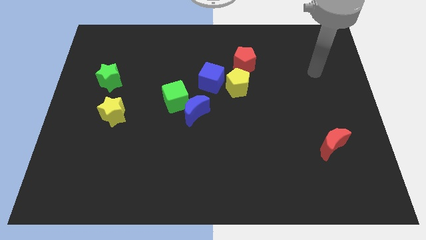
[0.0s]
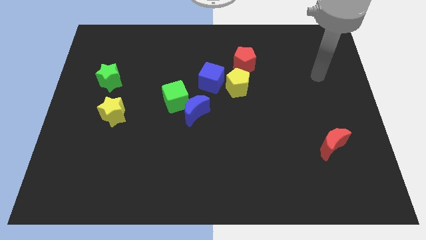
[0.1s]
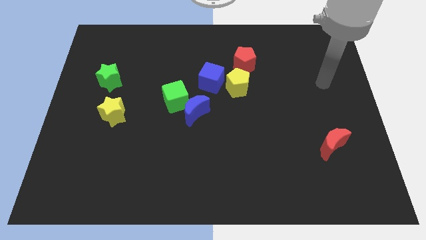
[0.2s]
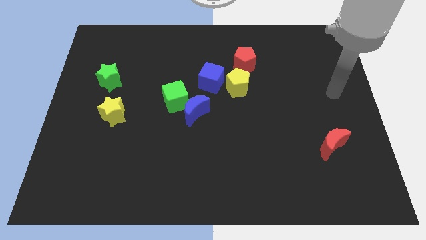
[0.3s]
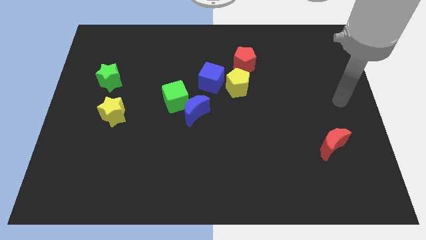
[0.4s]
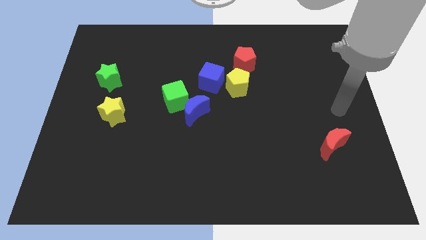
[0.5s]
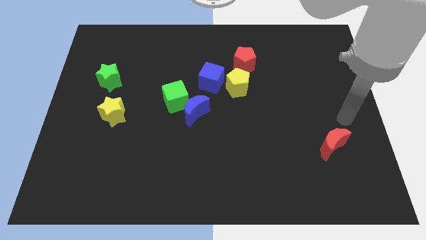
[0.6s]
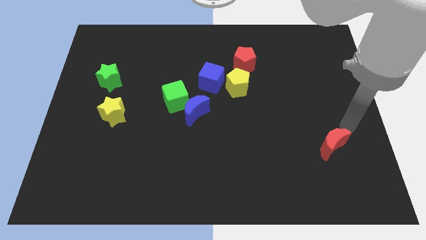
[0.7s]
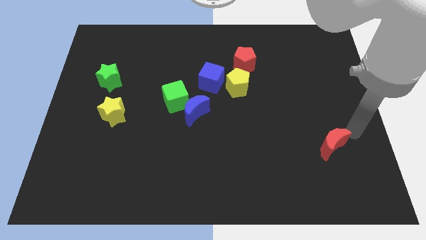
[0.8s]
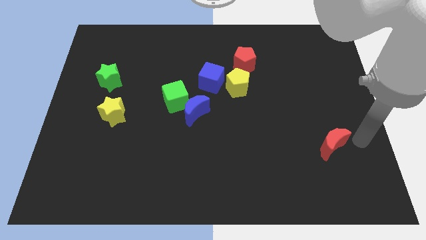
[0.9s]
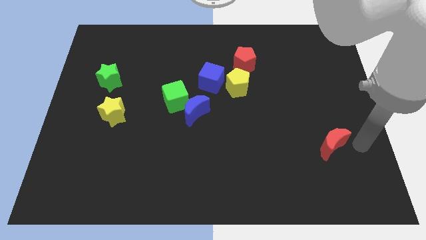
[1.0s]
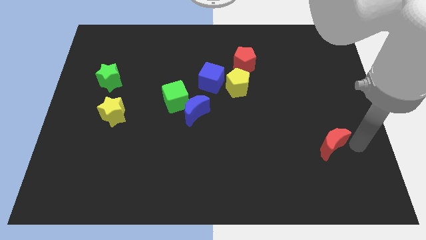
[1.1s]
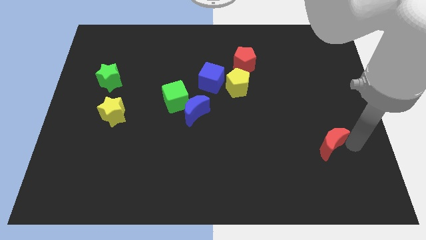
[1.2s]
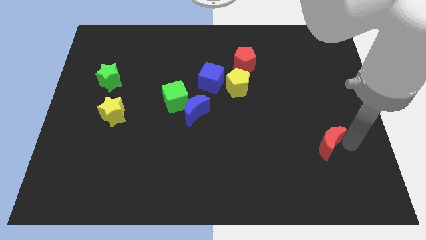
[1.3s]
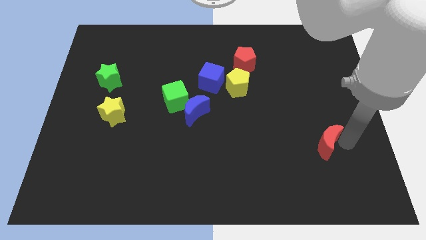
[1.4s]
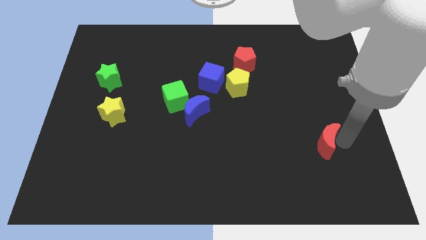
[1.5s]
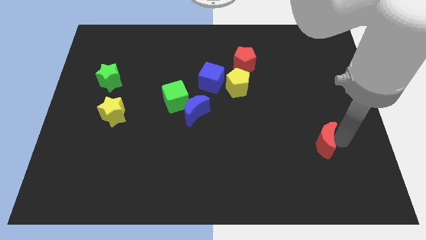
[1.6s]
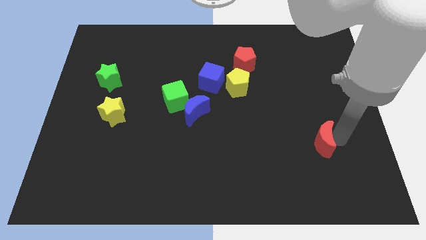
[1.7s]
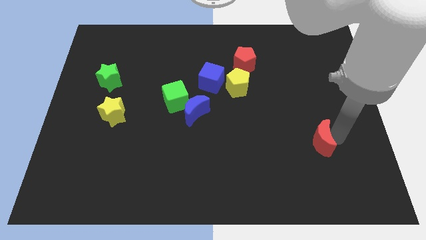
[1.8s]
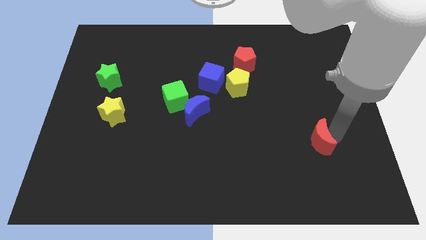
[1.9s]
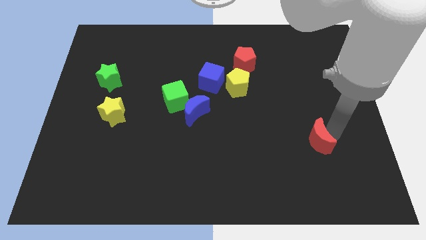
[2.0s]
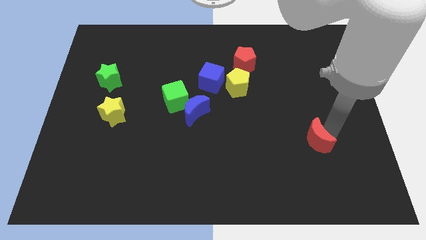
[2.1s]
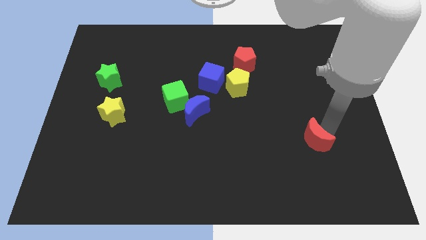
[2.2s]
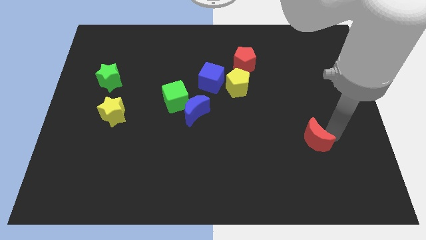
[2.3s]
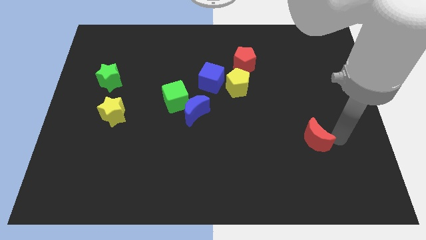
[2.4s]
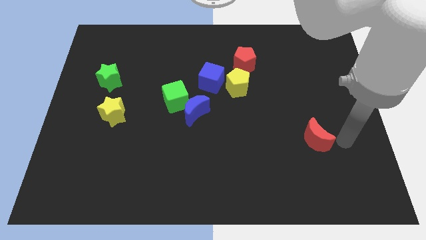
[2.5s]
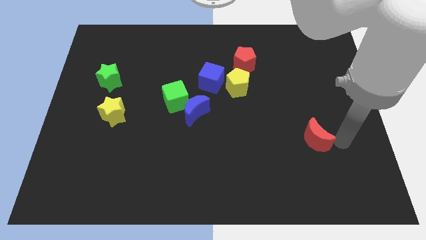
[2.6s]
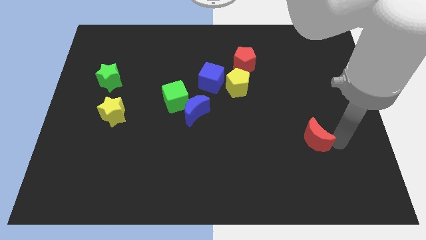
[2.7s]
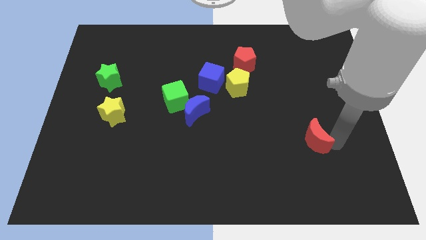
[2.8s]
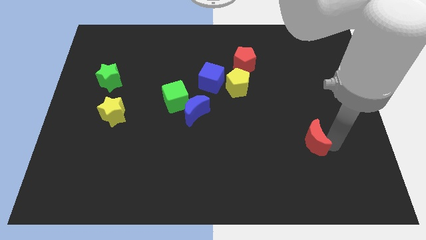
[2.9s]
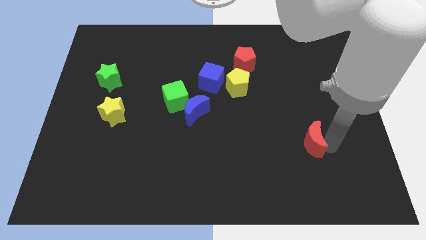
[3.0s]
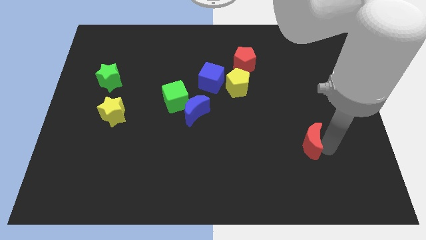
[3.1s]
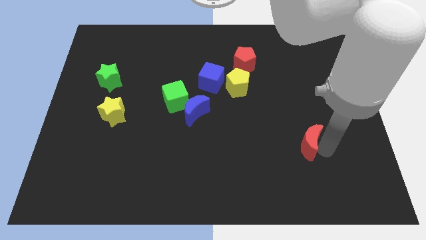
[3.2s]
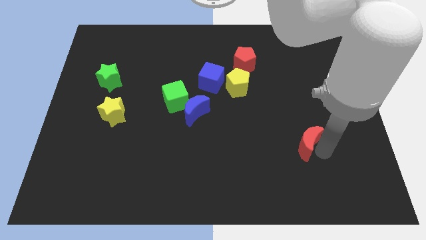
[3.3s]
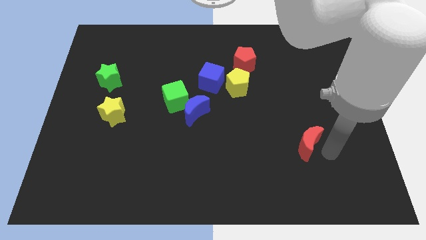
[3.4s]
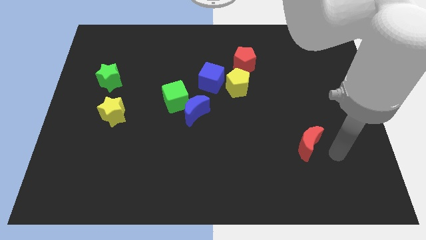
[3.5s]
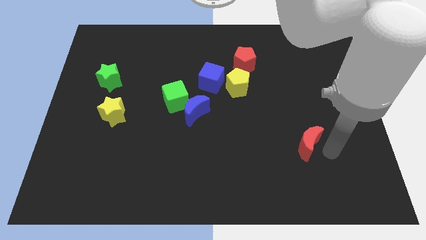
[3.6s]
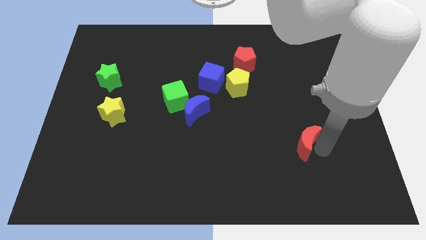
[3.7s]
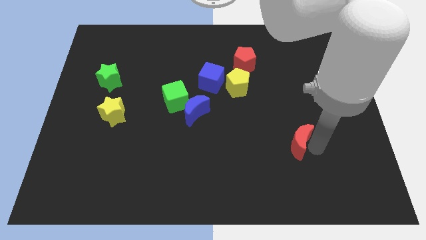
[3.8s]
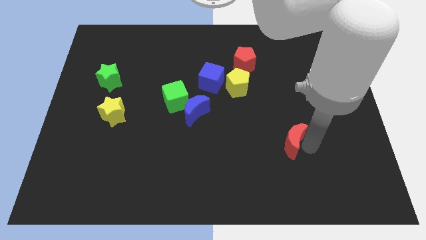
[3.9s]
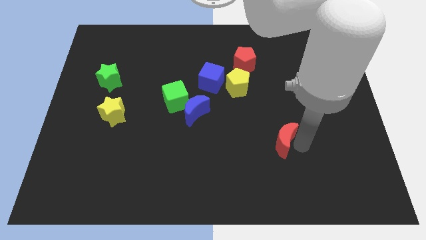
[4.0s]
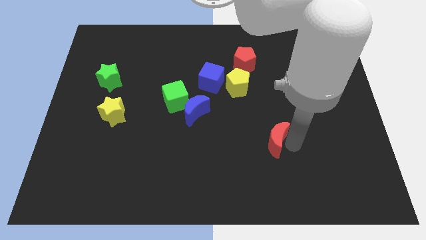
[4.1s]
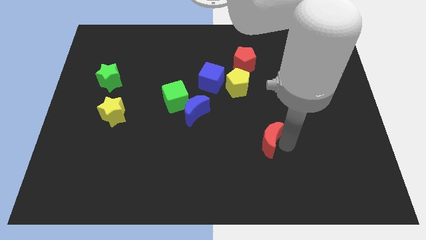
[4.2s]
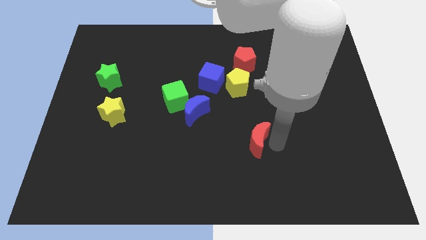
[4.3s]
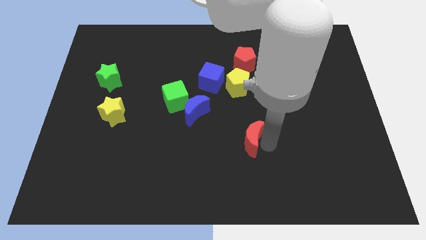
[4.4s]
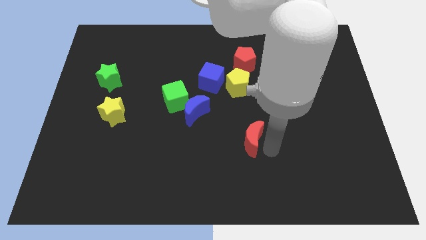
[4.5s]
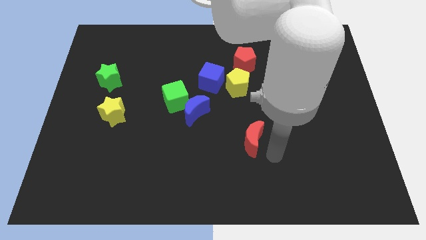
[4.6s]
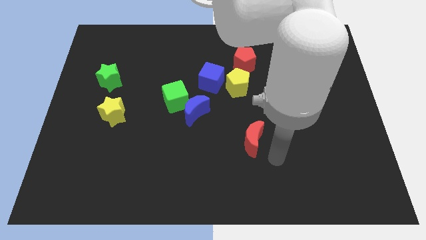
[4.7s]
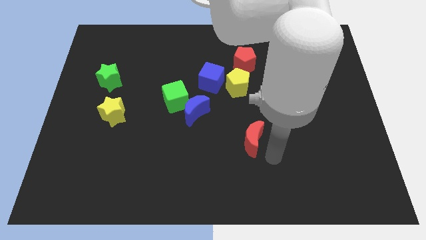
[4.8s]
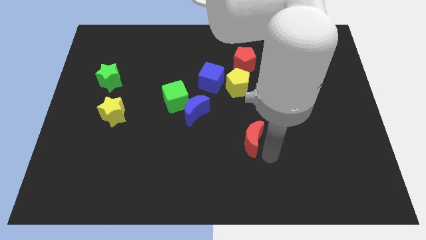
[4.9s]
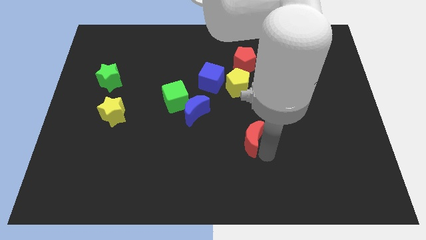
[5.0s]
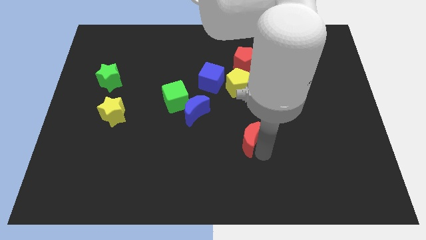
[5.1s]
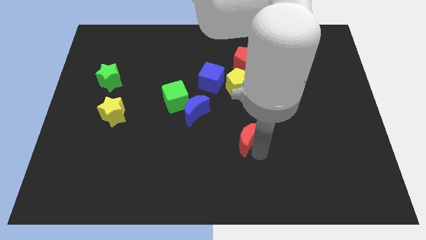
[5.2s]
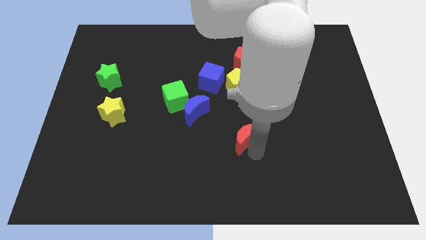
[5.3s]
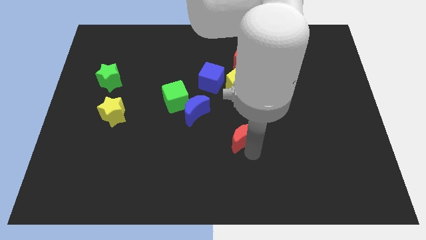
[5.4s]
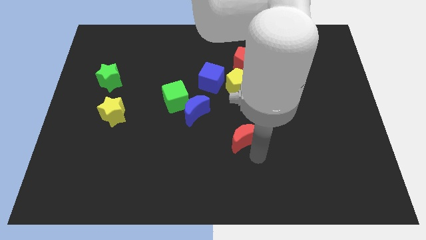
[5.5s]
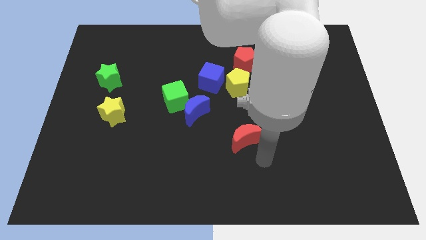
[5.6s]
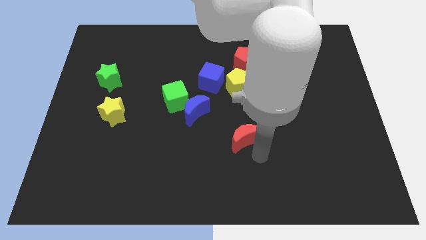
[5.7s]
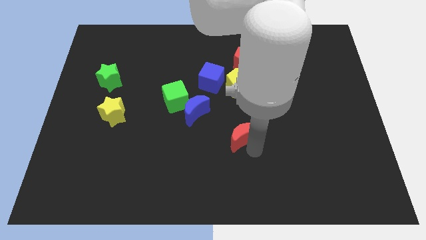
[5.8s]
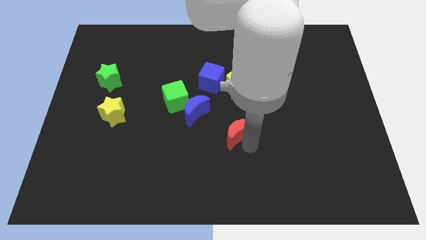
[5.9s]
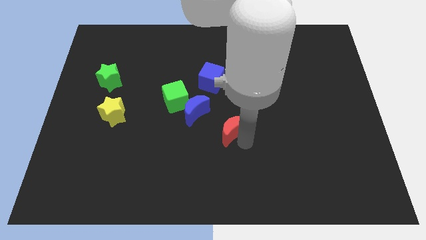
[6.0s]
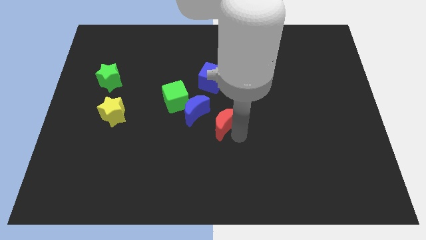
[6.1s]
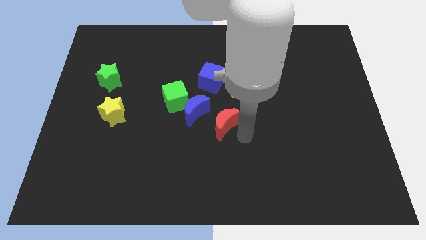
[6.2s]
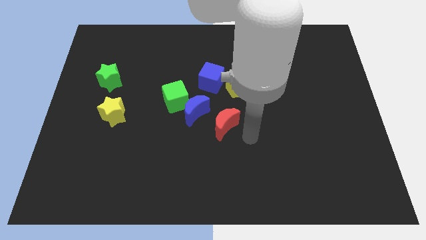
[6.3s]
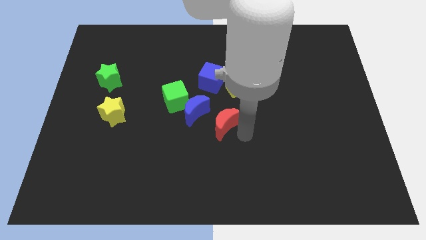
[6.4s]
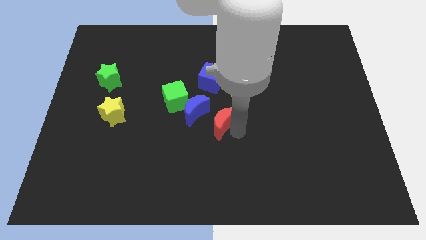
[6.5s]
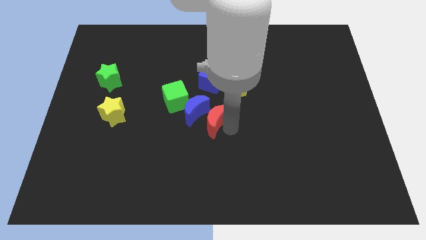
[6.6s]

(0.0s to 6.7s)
slide the red moon close to the blue moon

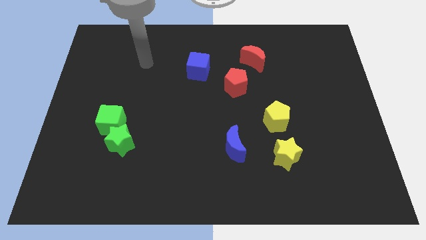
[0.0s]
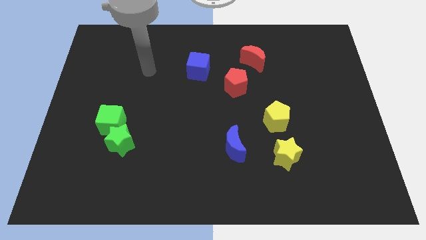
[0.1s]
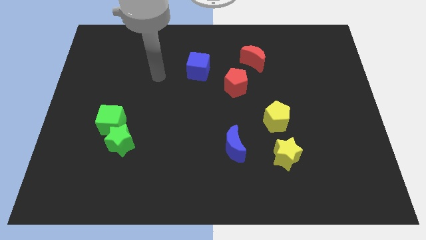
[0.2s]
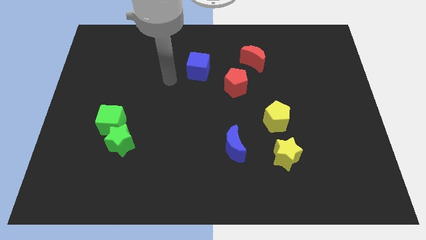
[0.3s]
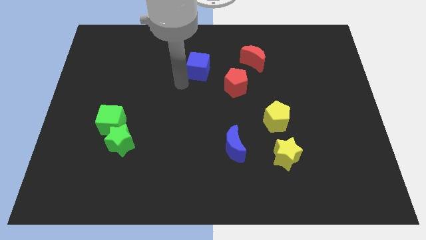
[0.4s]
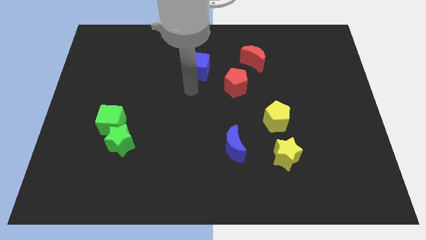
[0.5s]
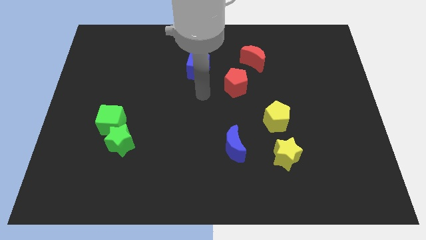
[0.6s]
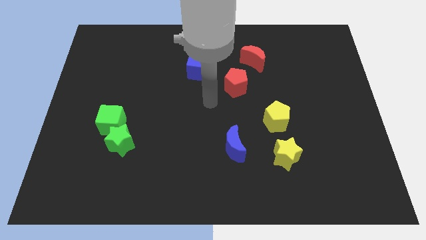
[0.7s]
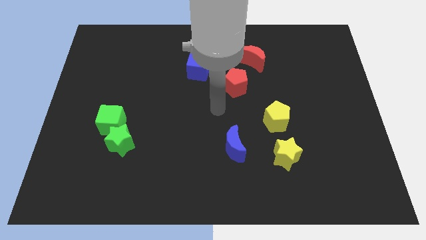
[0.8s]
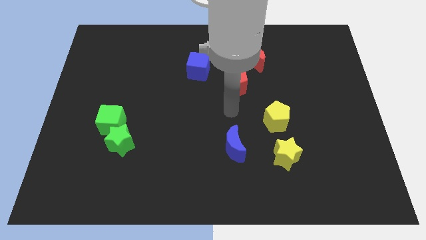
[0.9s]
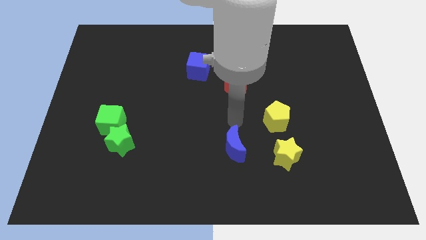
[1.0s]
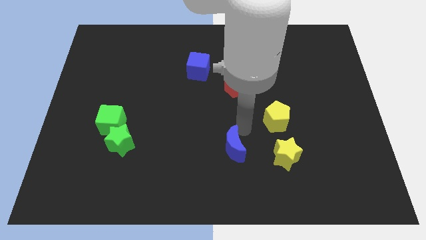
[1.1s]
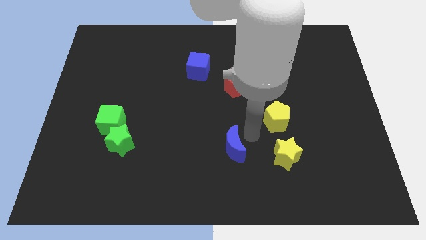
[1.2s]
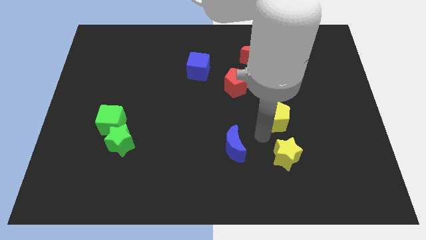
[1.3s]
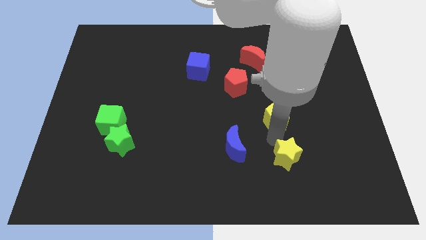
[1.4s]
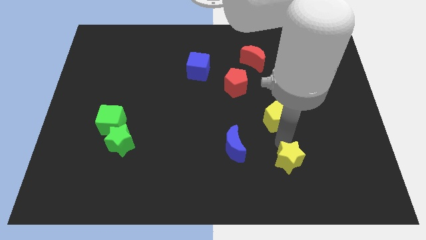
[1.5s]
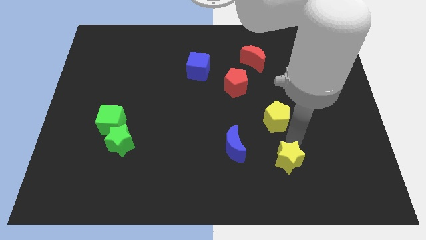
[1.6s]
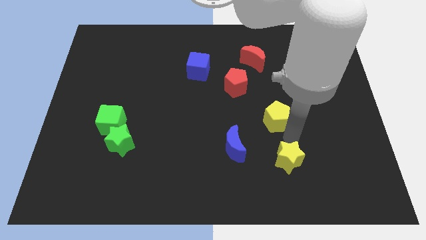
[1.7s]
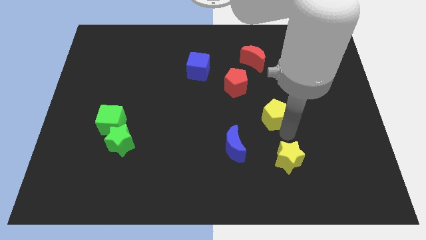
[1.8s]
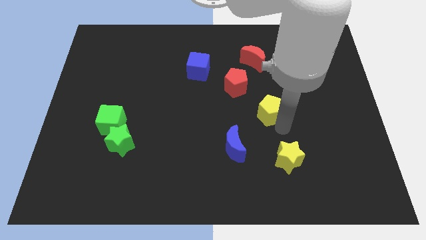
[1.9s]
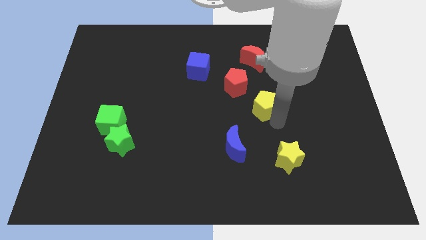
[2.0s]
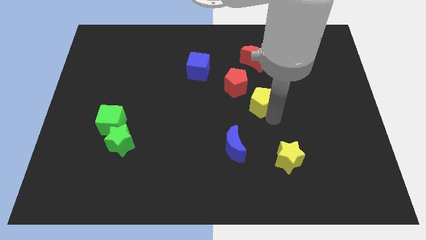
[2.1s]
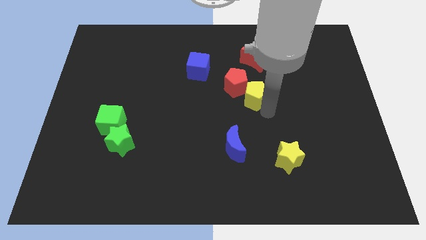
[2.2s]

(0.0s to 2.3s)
push the yellow pentagon next to the red pentagon
